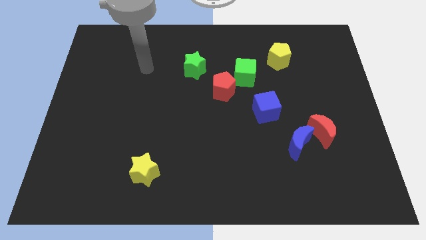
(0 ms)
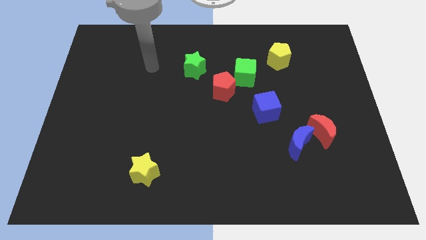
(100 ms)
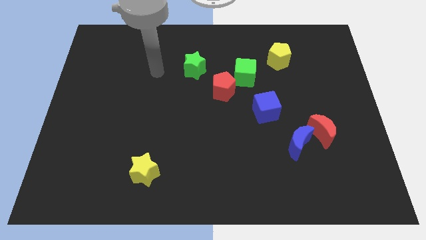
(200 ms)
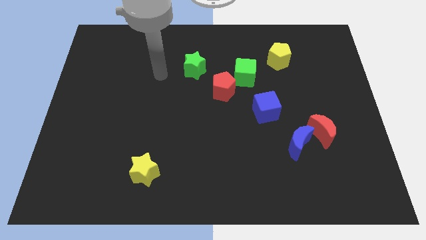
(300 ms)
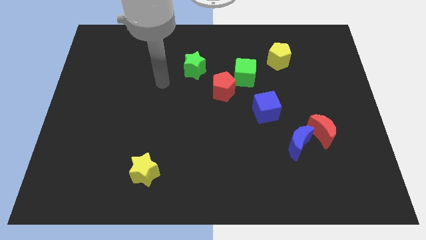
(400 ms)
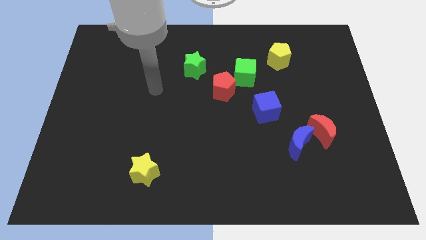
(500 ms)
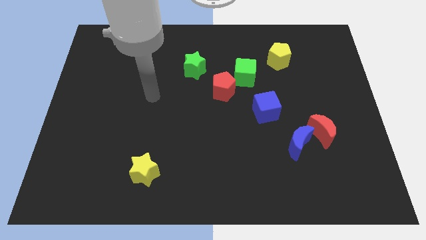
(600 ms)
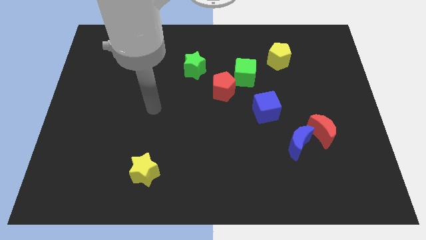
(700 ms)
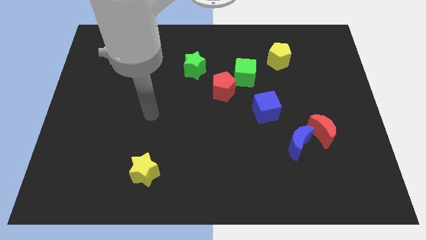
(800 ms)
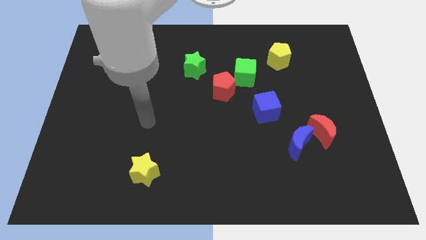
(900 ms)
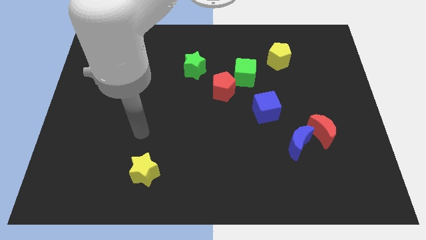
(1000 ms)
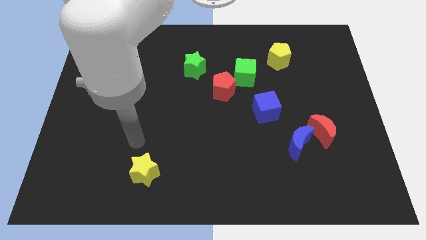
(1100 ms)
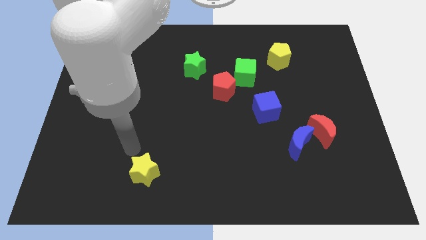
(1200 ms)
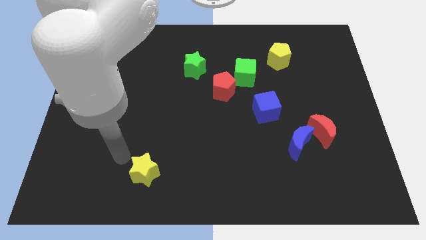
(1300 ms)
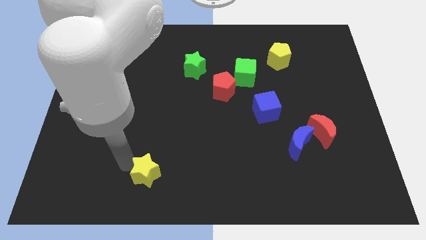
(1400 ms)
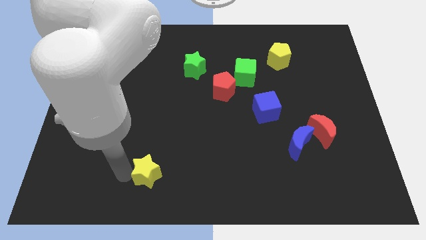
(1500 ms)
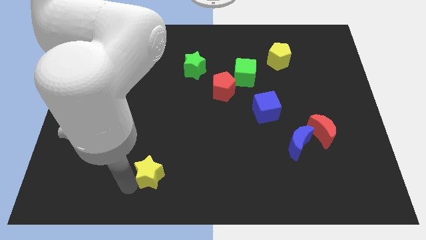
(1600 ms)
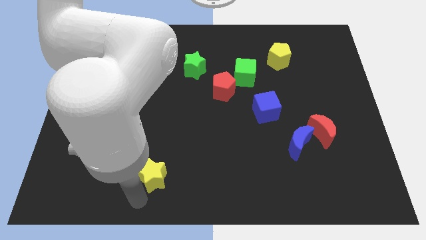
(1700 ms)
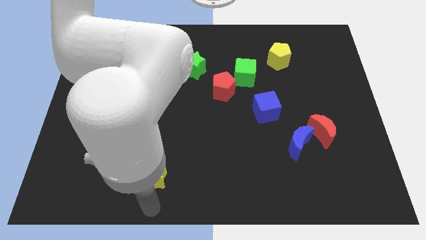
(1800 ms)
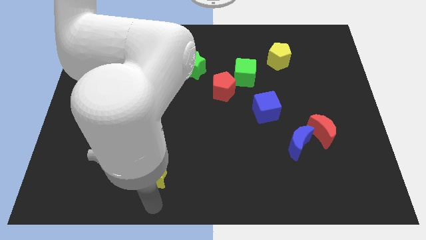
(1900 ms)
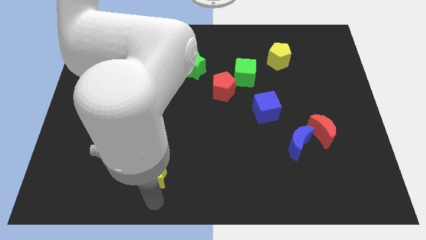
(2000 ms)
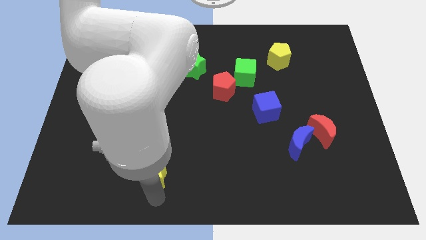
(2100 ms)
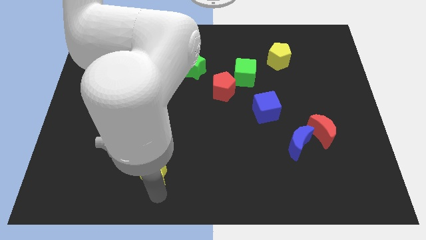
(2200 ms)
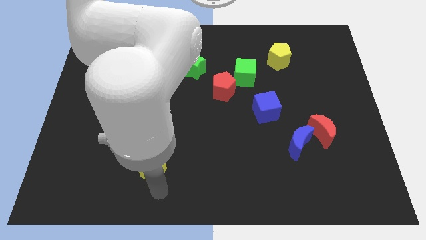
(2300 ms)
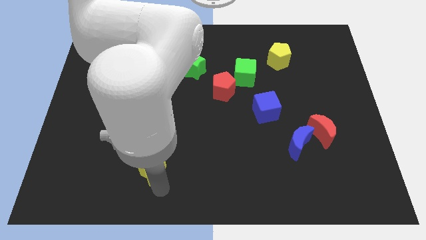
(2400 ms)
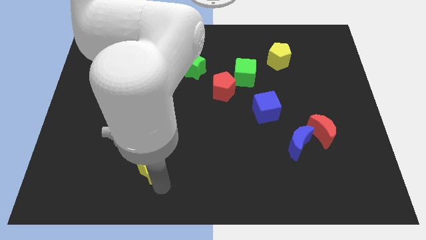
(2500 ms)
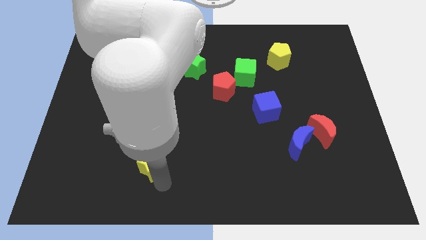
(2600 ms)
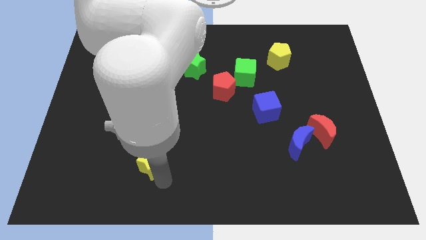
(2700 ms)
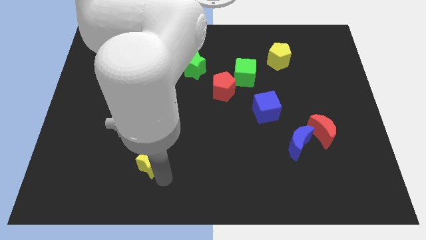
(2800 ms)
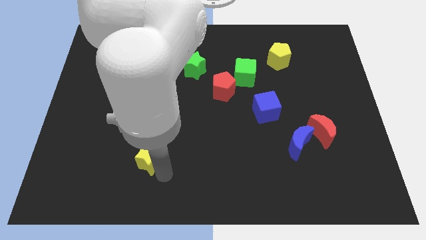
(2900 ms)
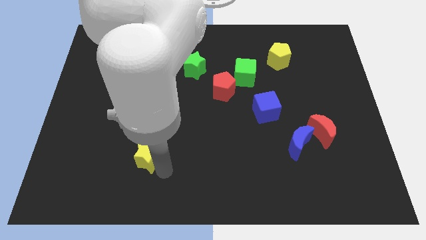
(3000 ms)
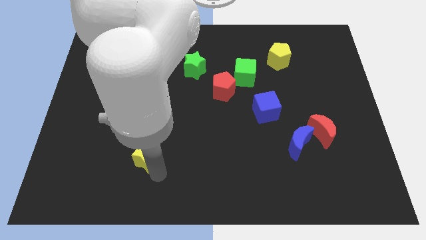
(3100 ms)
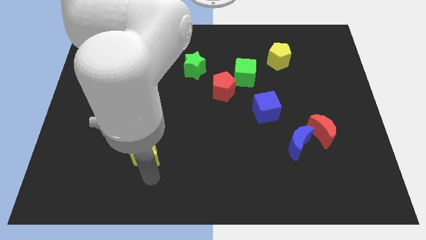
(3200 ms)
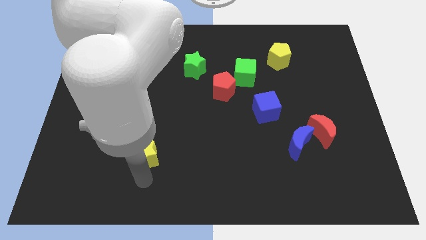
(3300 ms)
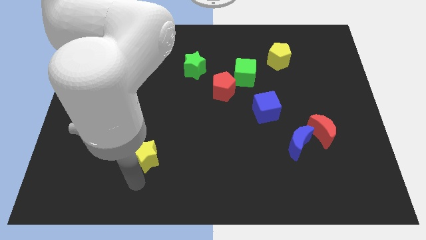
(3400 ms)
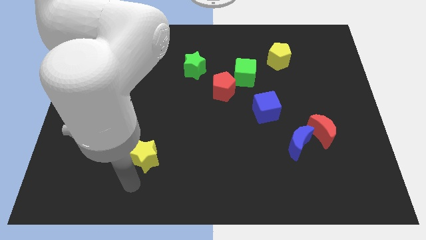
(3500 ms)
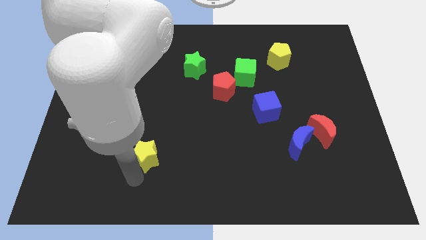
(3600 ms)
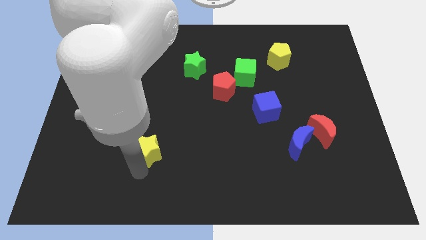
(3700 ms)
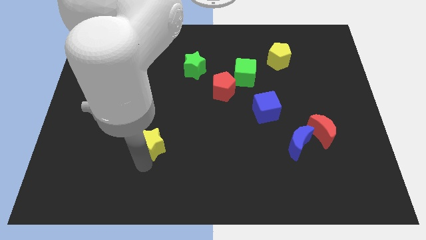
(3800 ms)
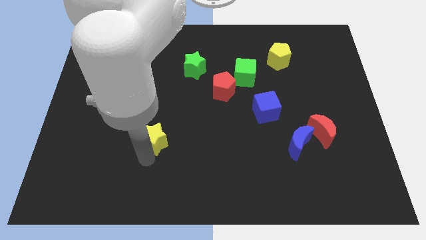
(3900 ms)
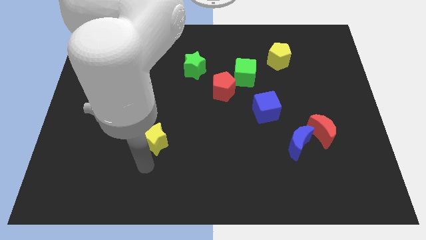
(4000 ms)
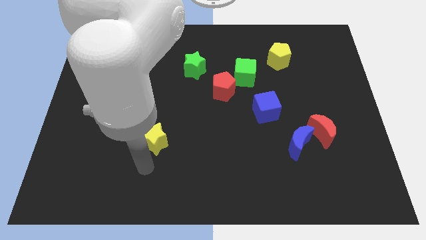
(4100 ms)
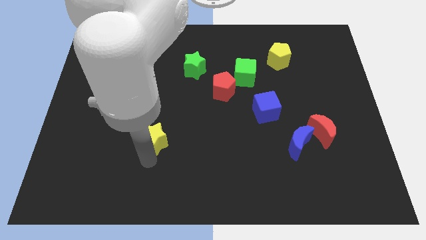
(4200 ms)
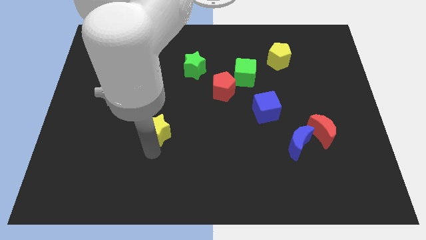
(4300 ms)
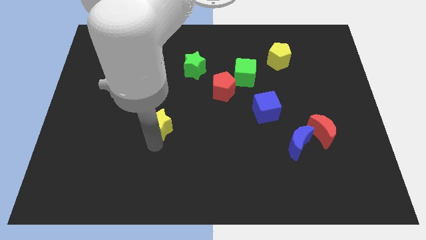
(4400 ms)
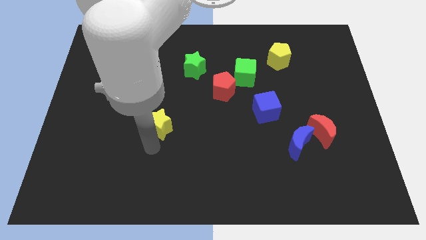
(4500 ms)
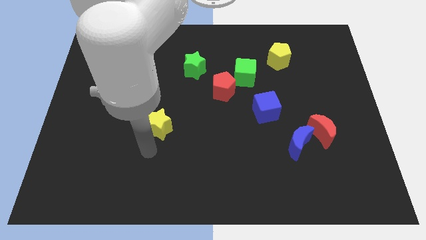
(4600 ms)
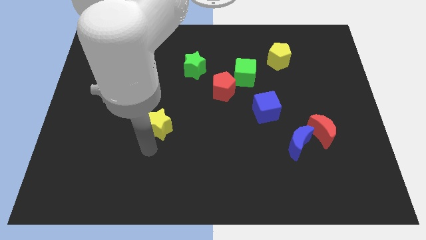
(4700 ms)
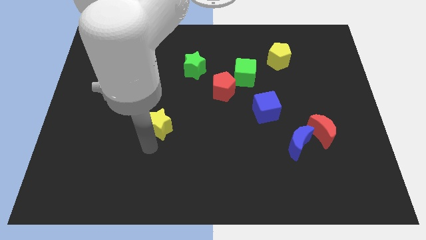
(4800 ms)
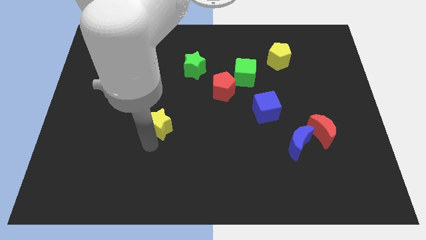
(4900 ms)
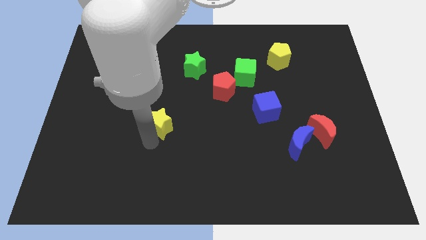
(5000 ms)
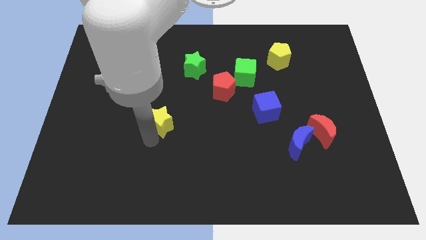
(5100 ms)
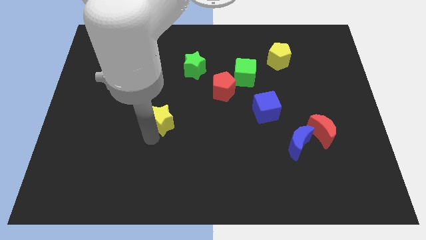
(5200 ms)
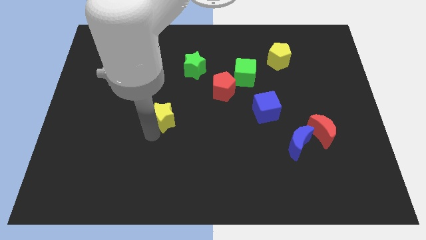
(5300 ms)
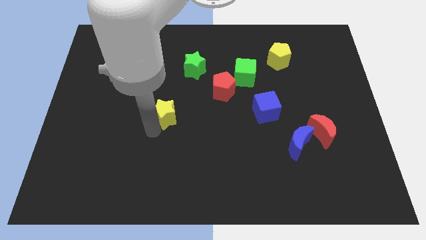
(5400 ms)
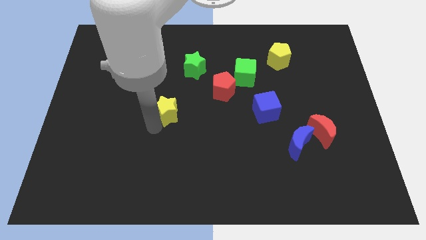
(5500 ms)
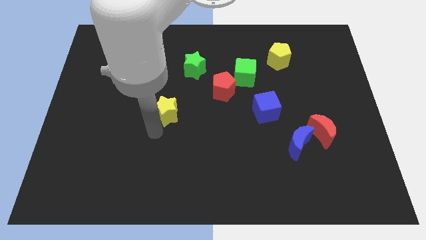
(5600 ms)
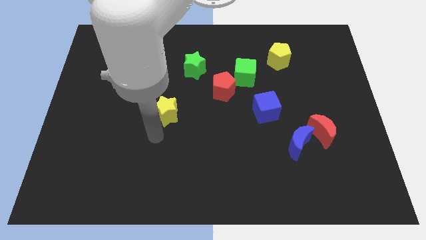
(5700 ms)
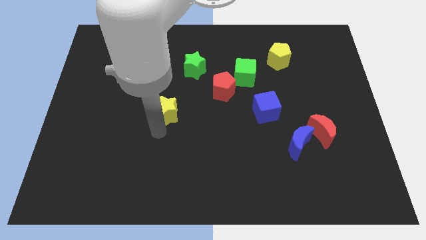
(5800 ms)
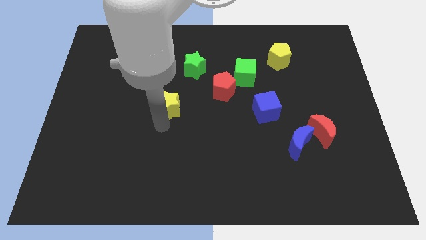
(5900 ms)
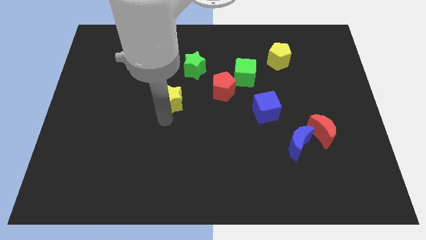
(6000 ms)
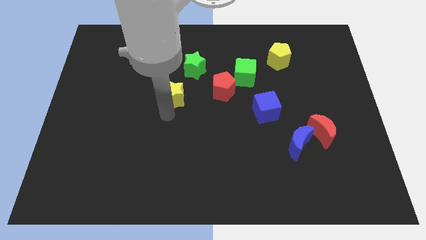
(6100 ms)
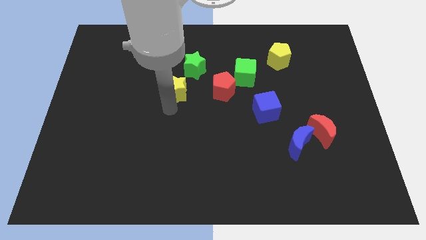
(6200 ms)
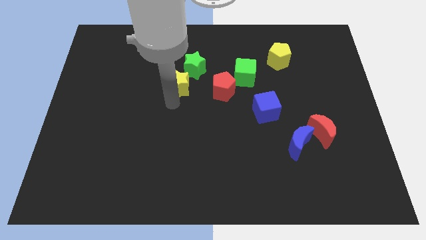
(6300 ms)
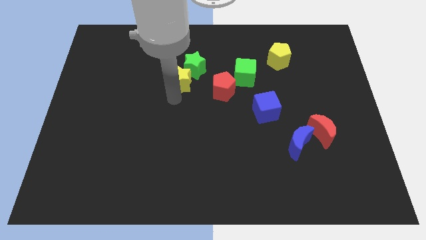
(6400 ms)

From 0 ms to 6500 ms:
push the yellow star towards the green star

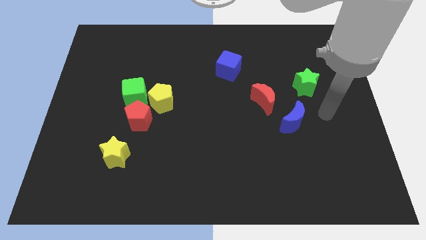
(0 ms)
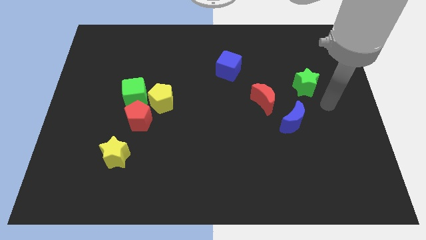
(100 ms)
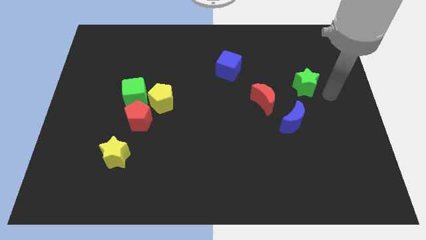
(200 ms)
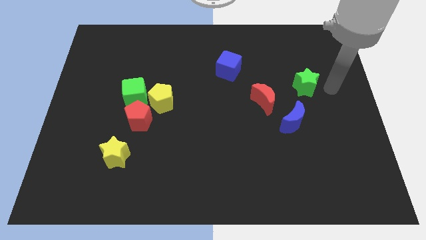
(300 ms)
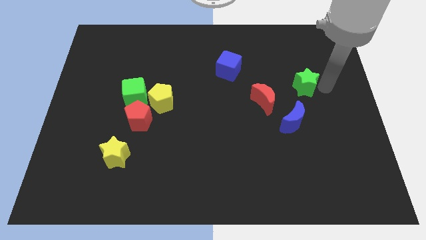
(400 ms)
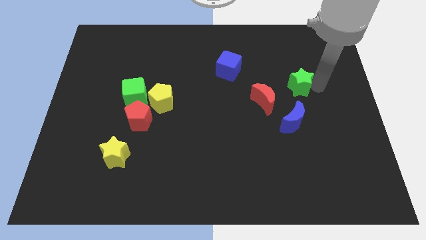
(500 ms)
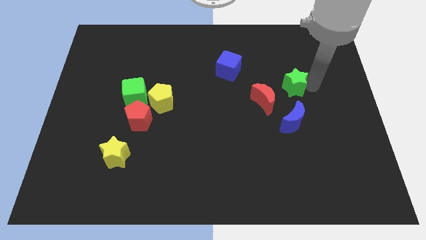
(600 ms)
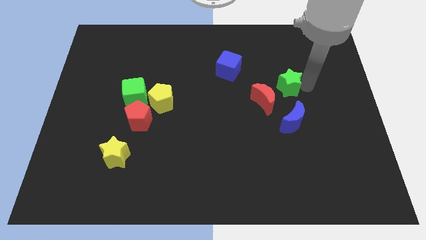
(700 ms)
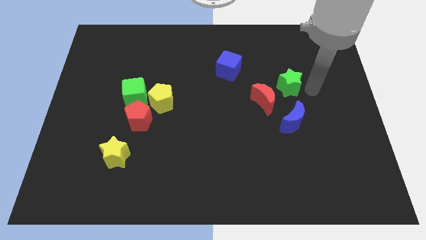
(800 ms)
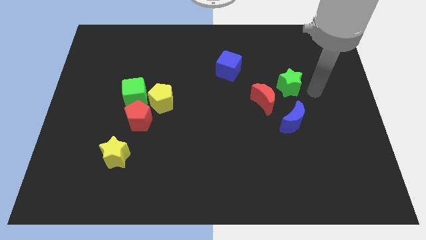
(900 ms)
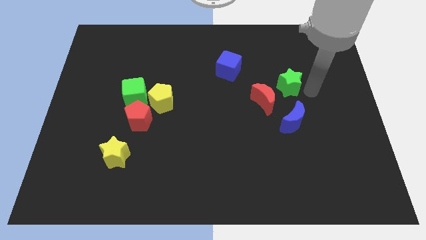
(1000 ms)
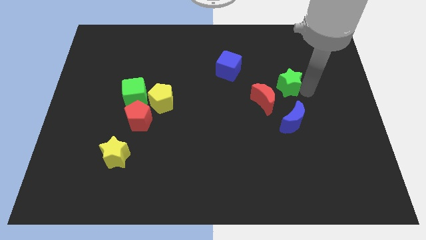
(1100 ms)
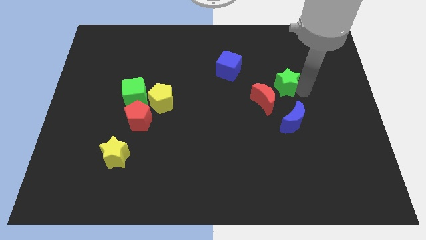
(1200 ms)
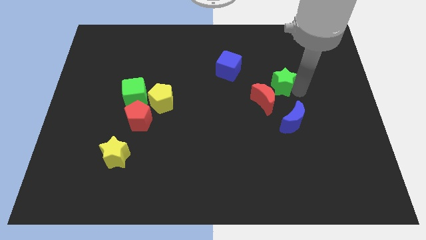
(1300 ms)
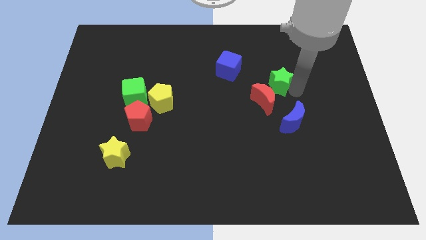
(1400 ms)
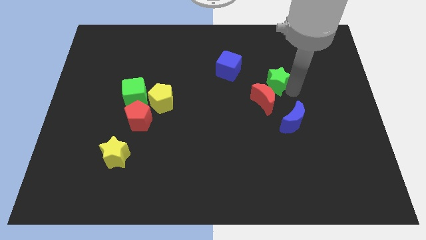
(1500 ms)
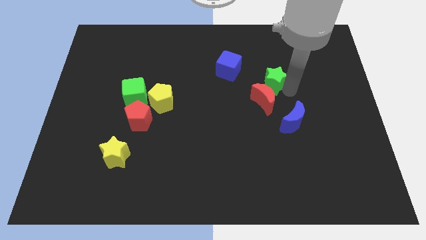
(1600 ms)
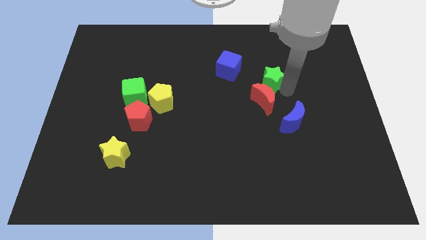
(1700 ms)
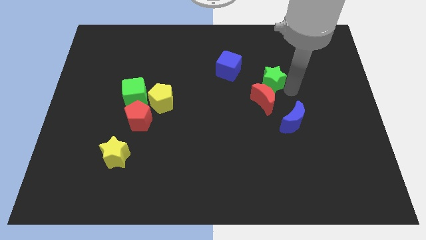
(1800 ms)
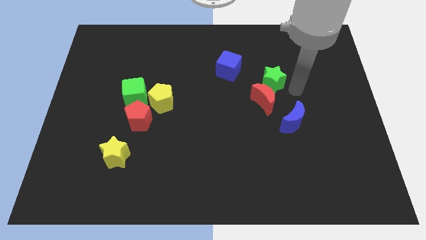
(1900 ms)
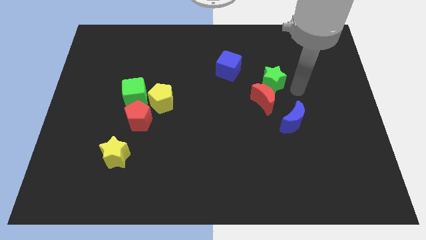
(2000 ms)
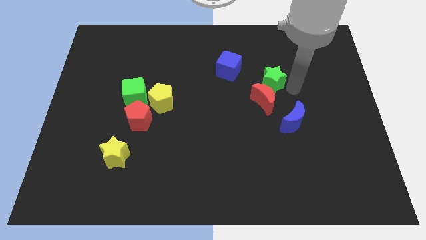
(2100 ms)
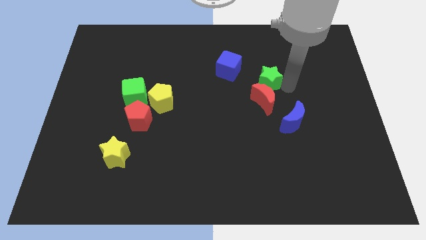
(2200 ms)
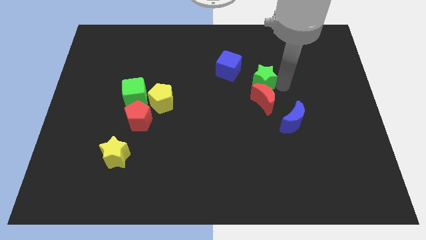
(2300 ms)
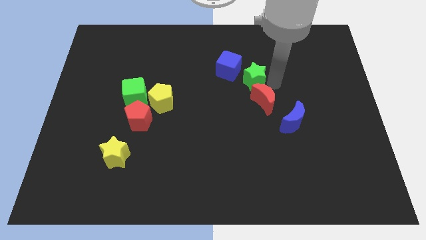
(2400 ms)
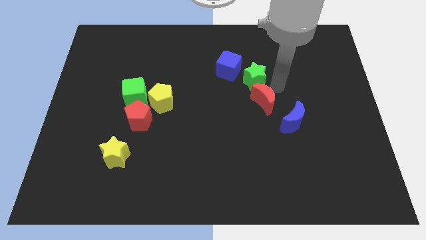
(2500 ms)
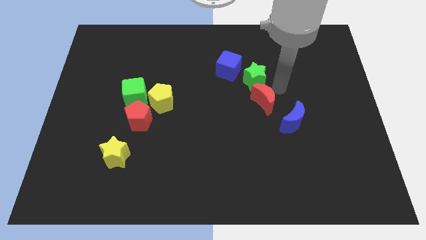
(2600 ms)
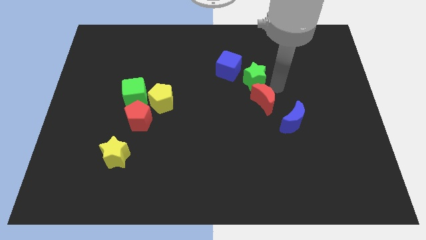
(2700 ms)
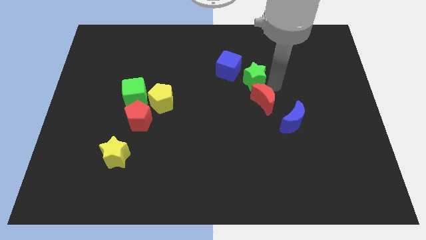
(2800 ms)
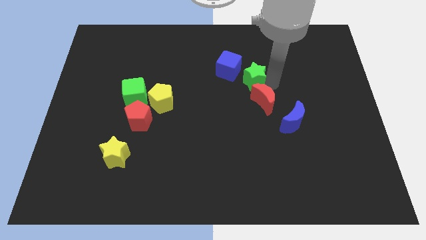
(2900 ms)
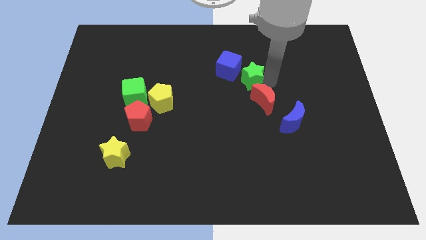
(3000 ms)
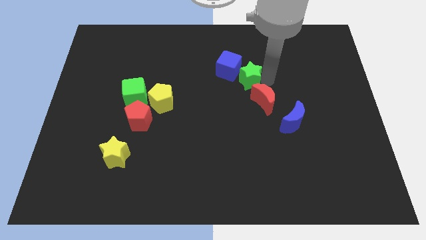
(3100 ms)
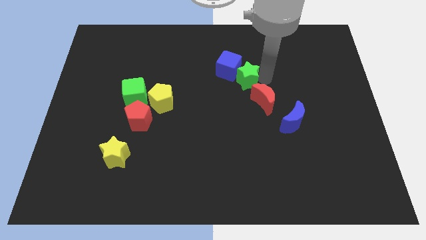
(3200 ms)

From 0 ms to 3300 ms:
slide the green star next to the blue cube
